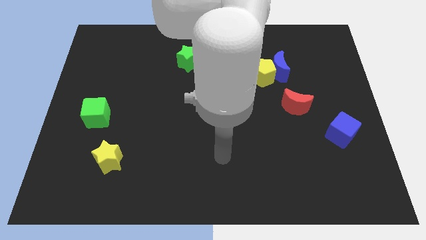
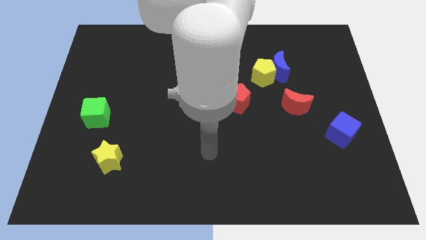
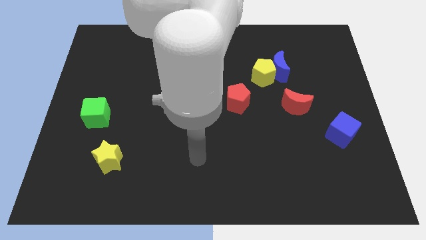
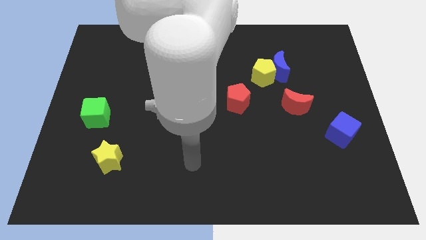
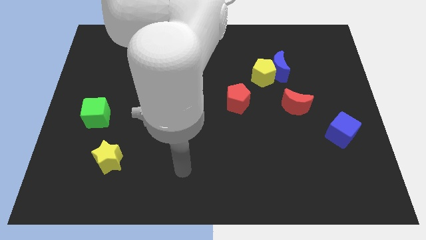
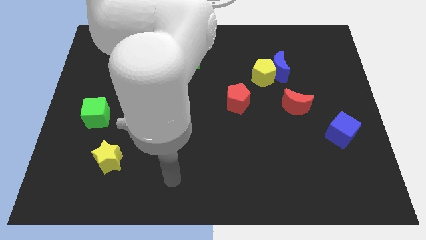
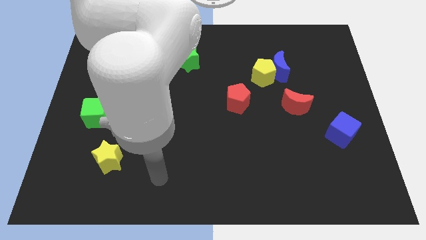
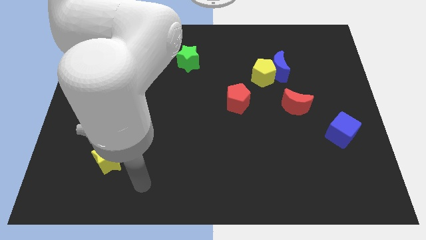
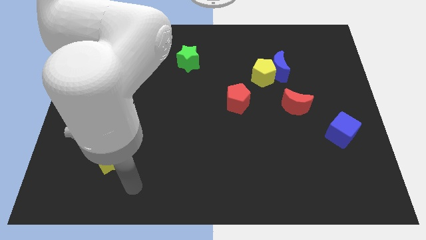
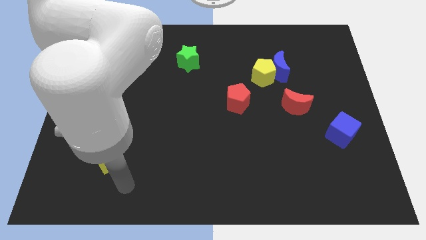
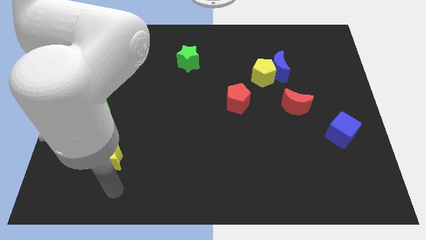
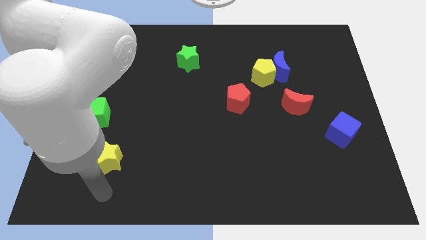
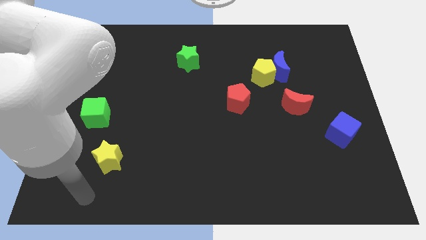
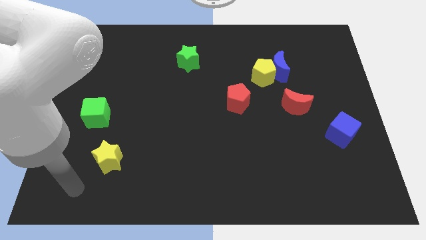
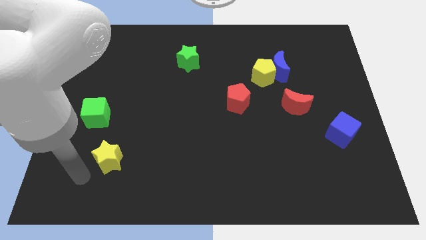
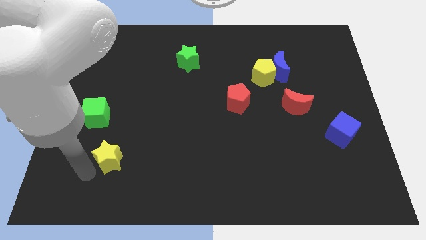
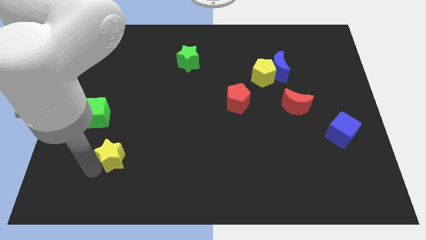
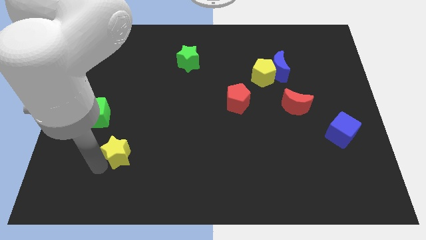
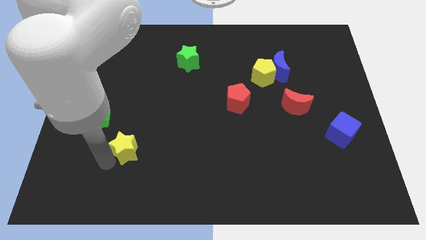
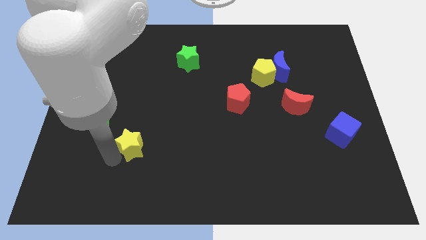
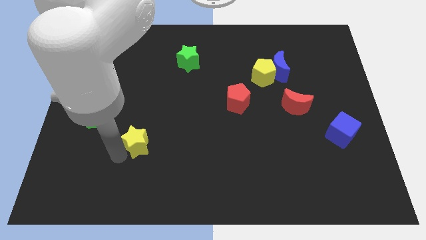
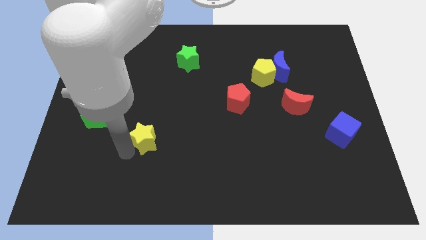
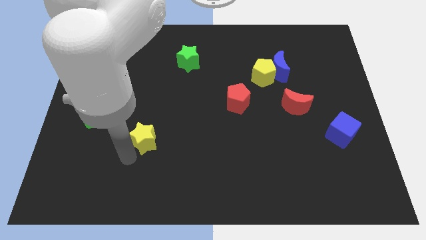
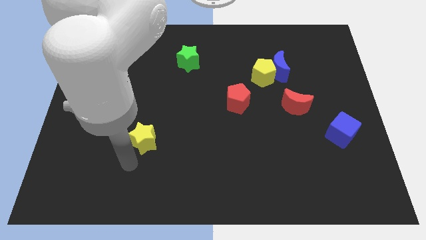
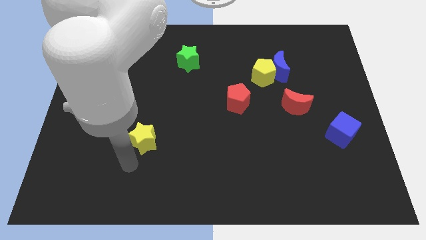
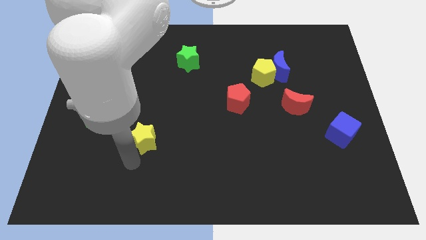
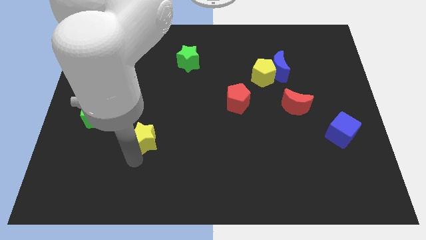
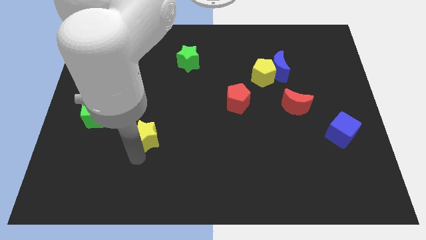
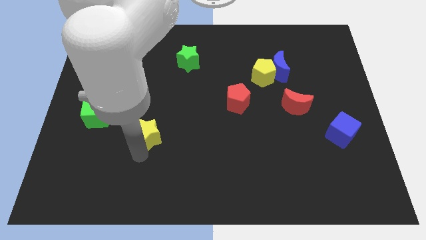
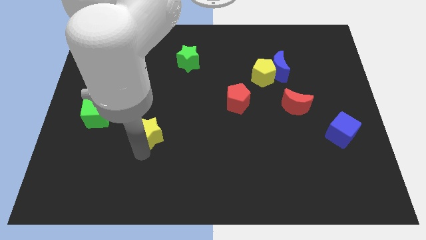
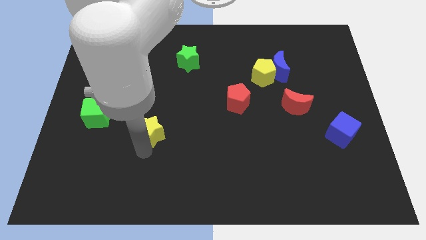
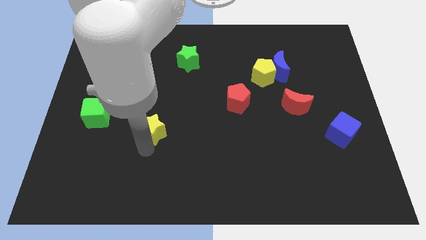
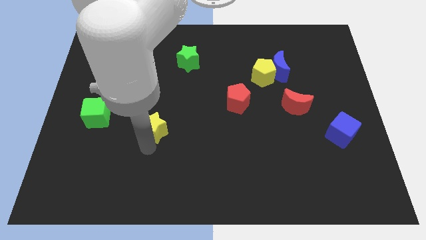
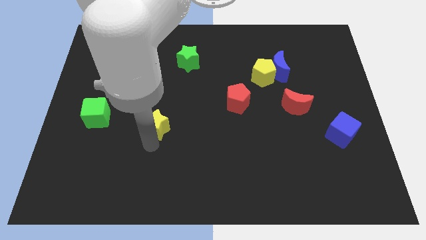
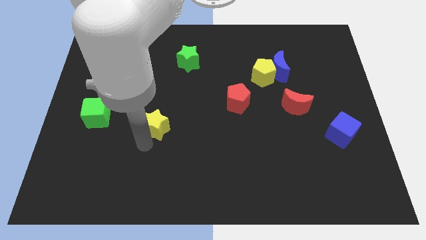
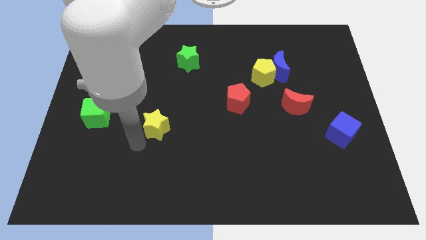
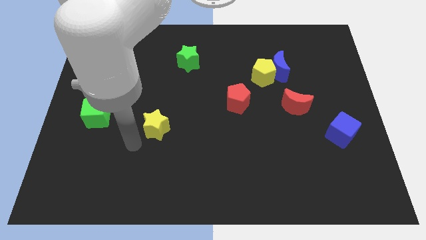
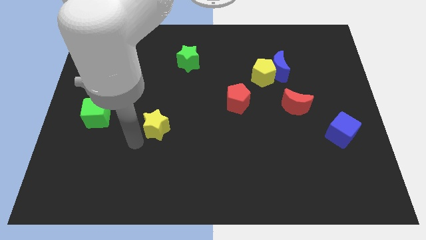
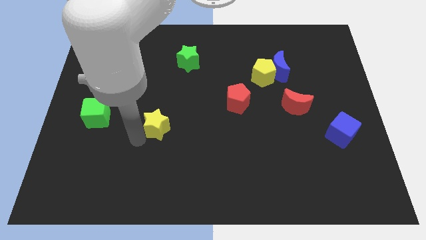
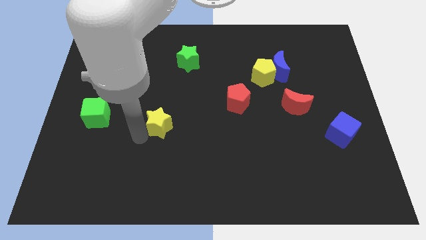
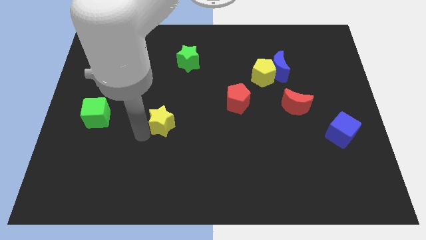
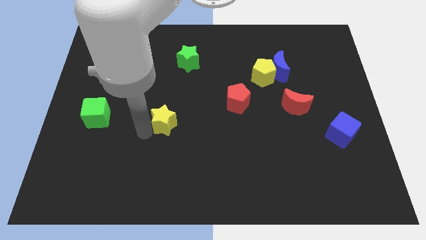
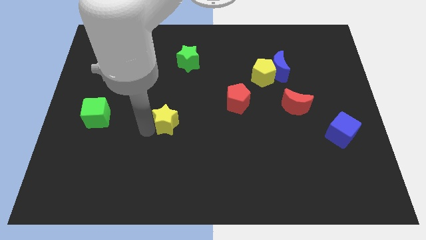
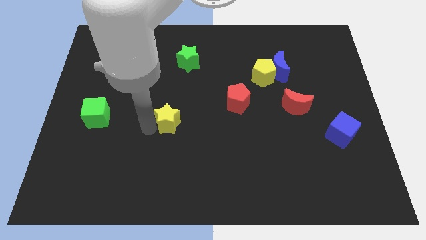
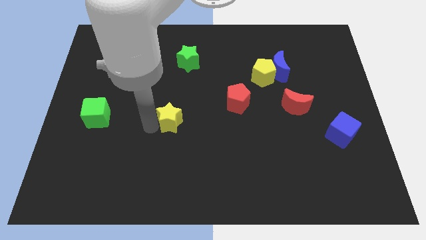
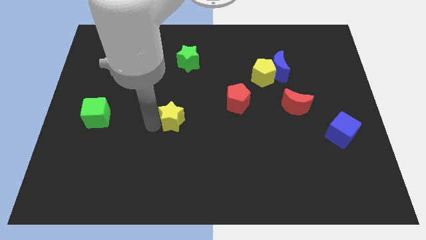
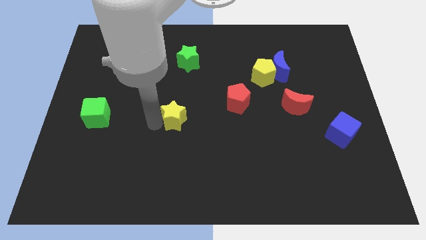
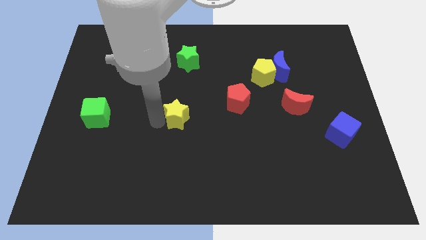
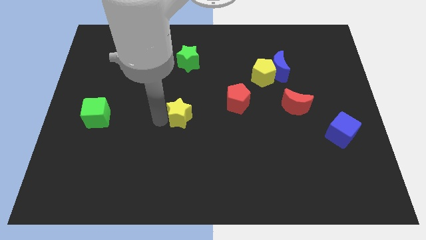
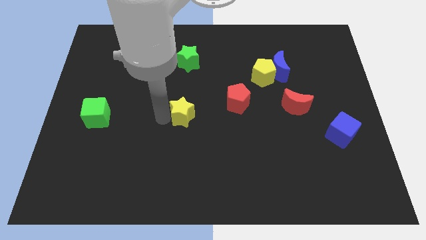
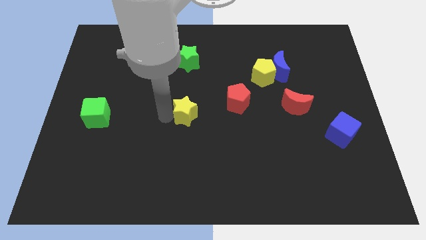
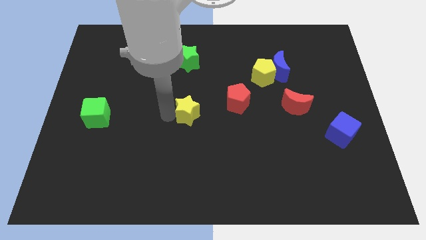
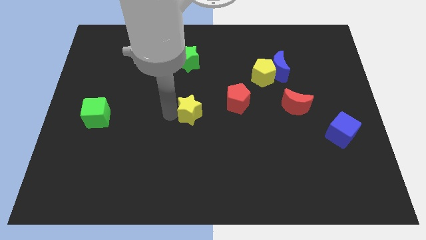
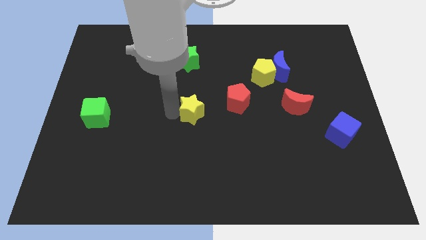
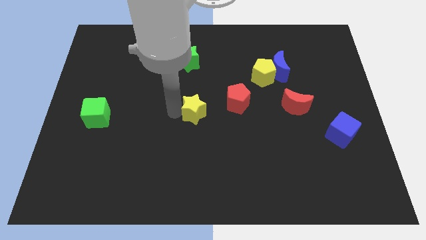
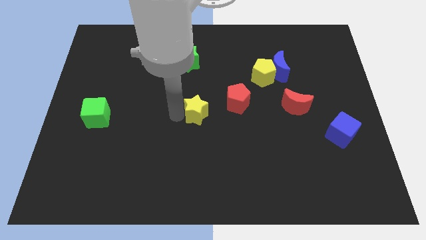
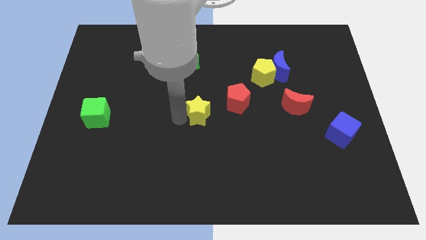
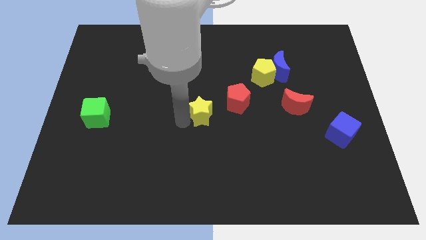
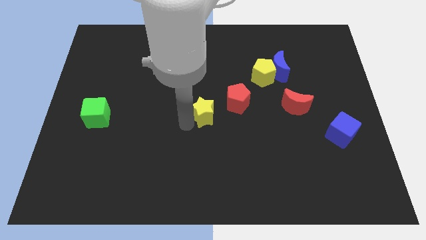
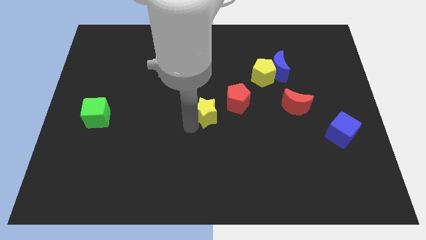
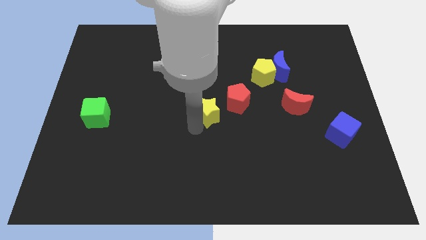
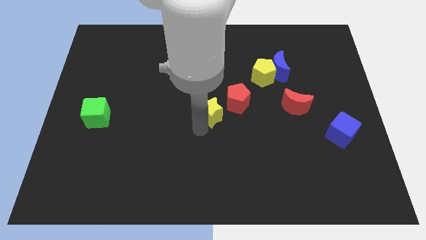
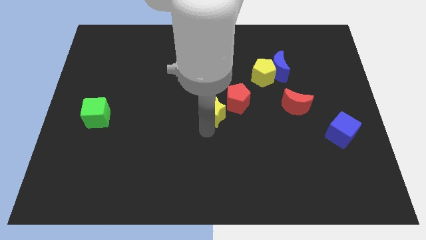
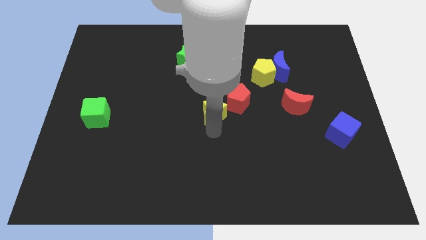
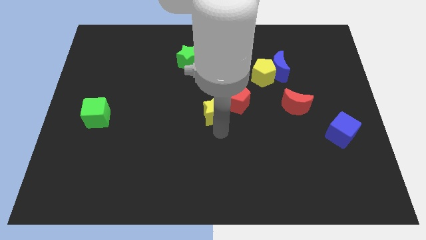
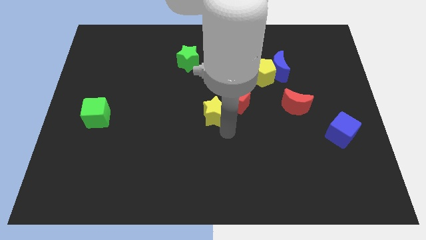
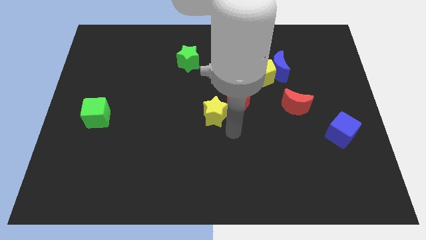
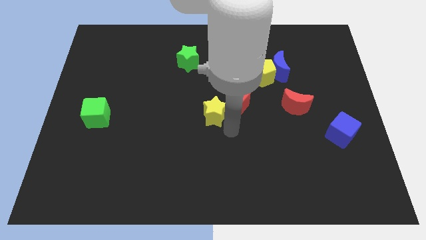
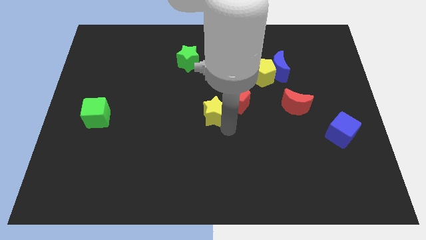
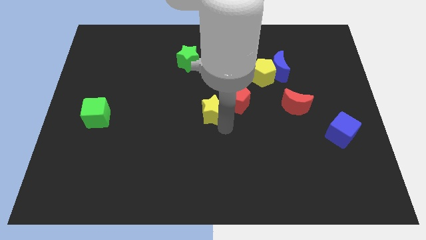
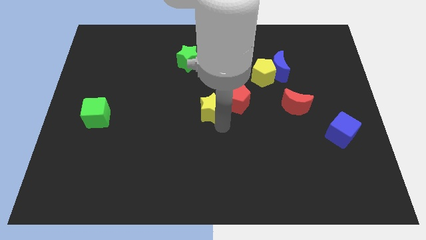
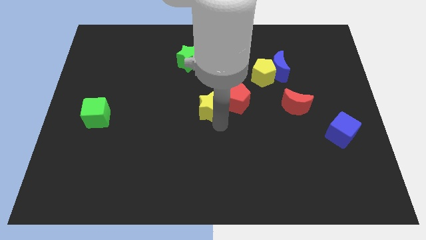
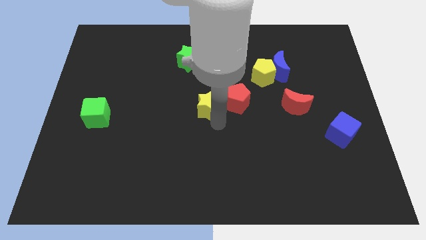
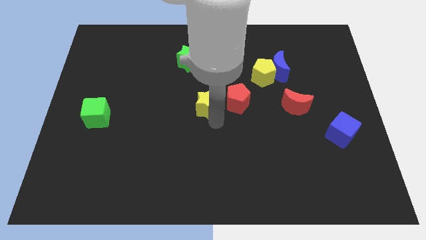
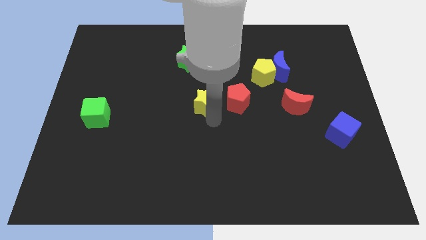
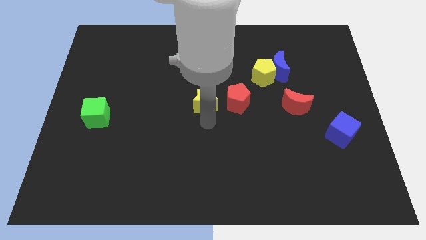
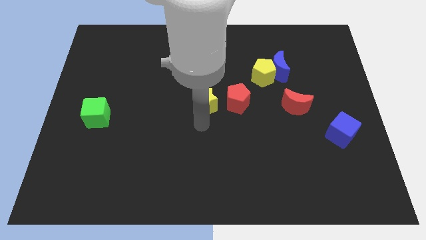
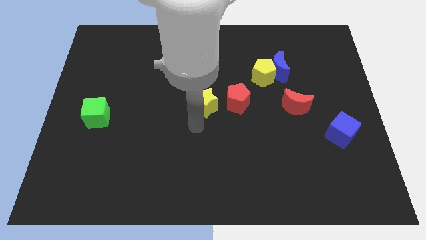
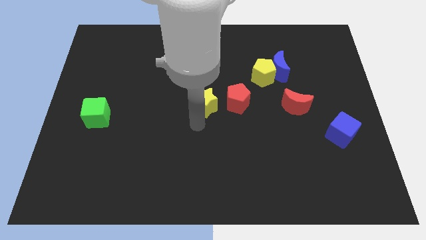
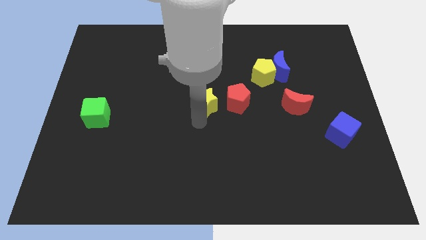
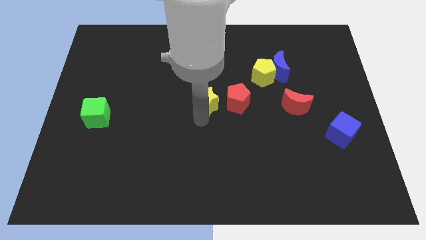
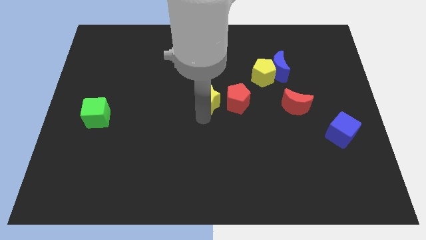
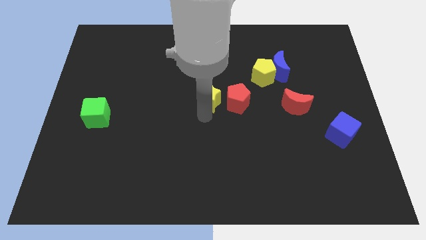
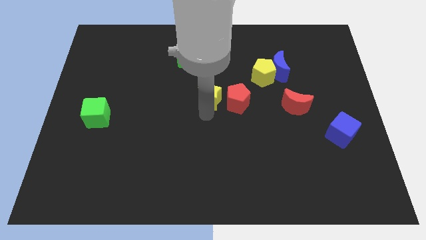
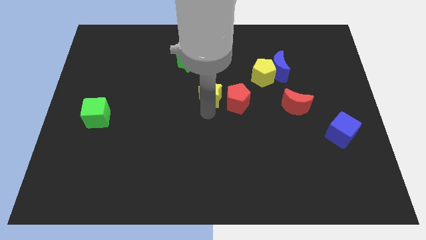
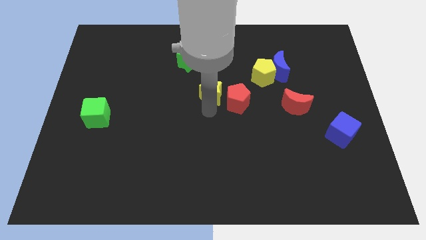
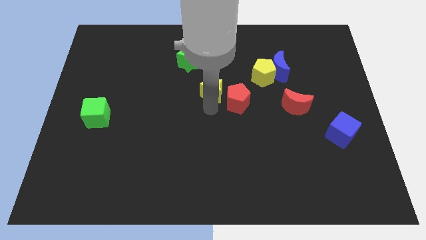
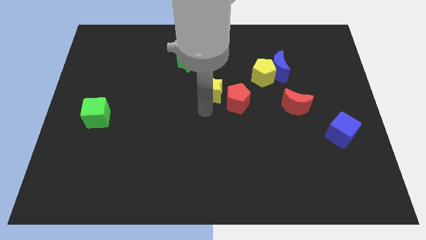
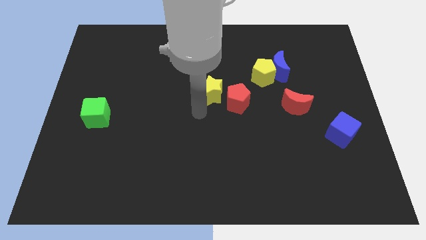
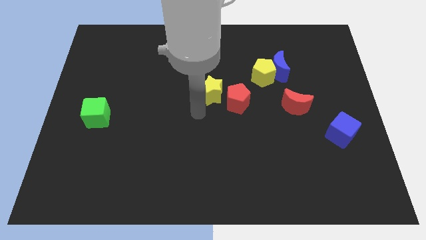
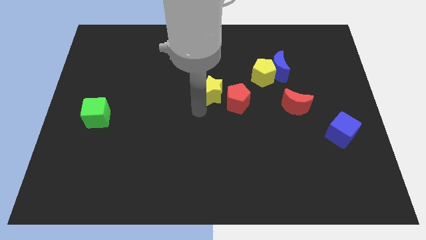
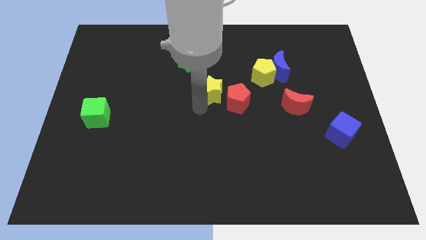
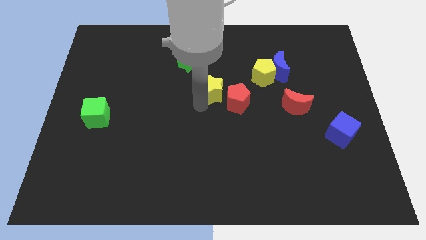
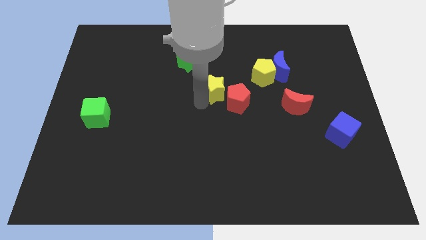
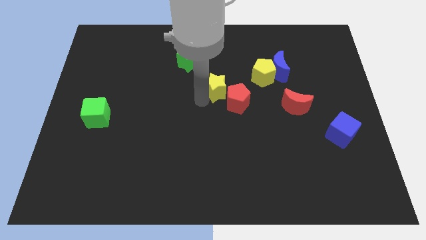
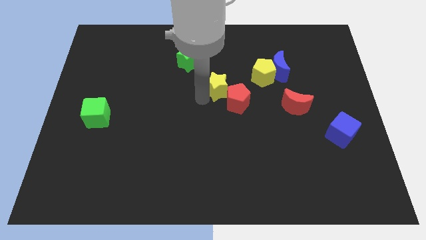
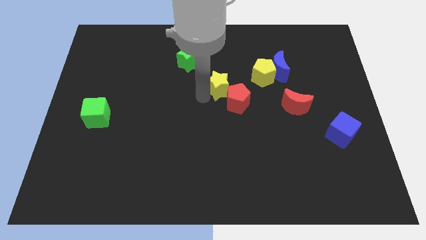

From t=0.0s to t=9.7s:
slide the yellow star to the top of the red pentagon
